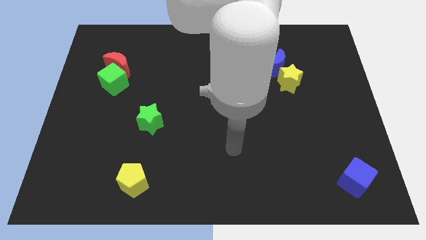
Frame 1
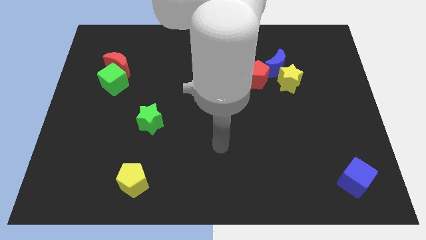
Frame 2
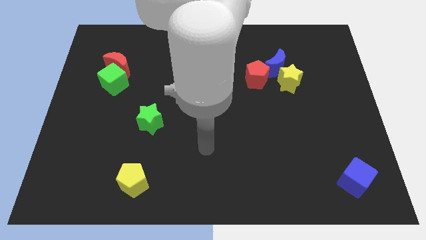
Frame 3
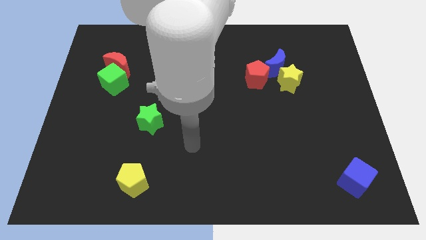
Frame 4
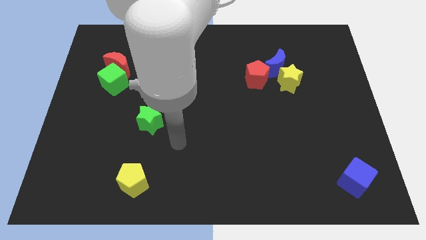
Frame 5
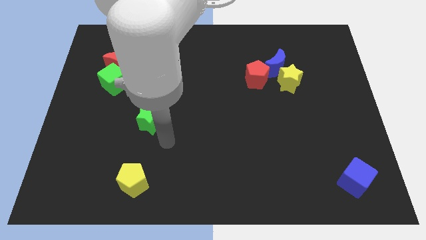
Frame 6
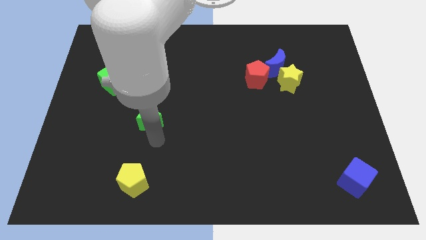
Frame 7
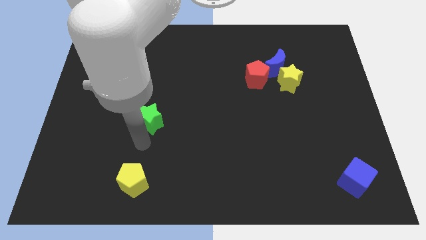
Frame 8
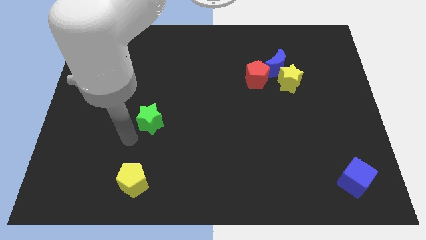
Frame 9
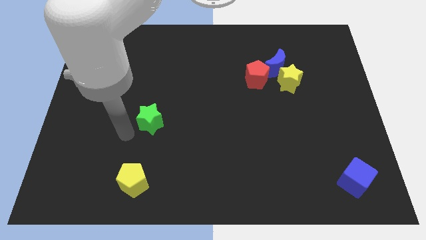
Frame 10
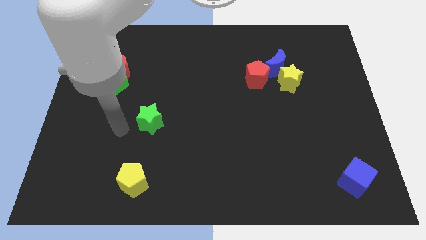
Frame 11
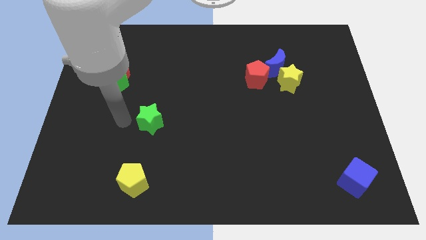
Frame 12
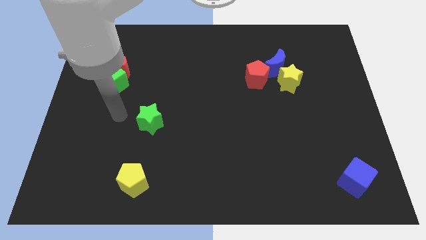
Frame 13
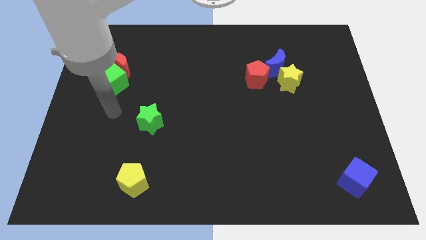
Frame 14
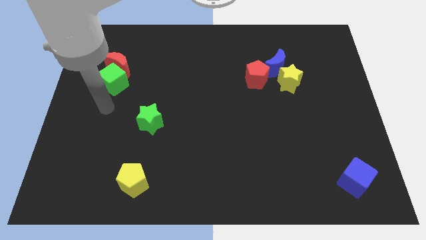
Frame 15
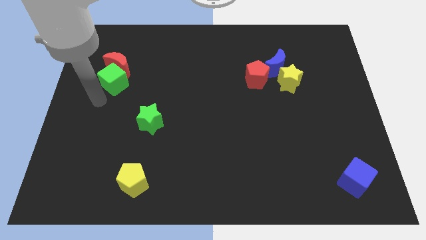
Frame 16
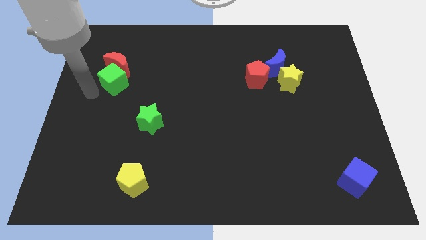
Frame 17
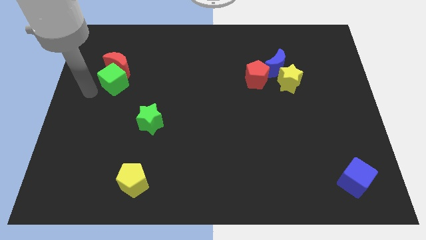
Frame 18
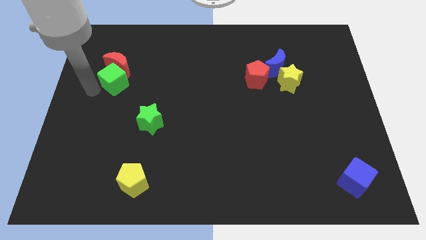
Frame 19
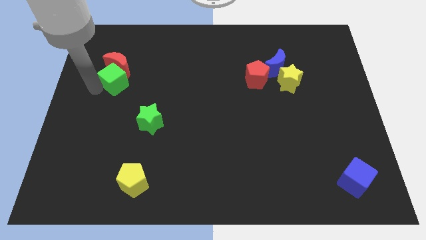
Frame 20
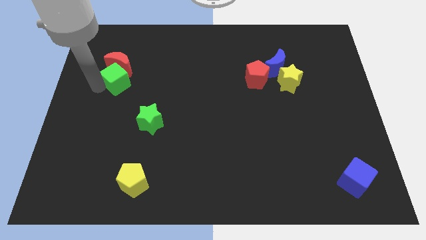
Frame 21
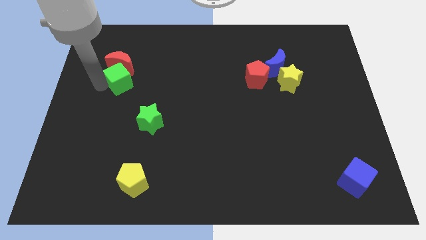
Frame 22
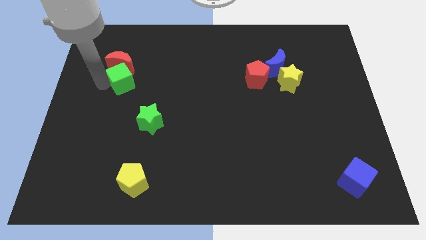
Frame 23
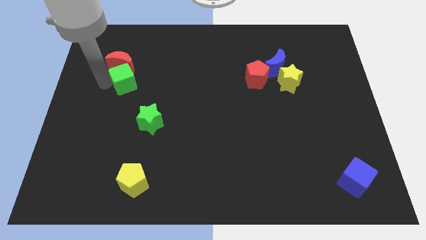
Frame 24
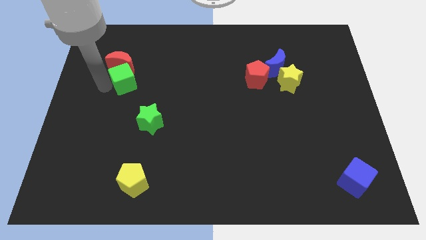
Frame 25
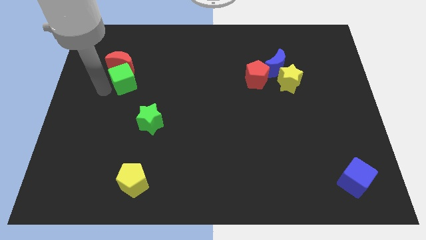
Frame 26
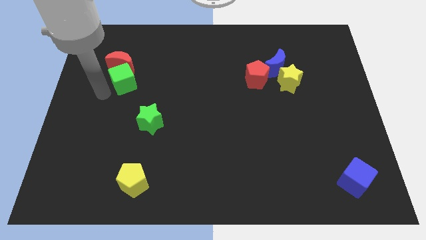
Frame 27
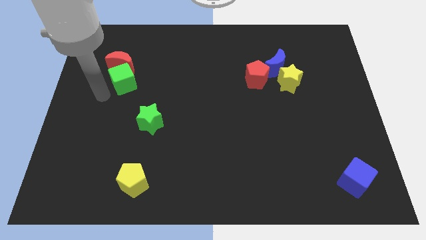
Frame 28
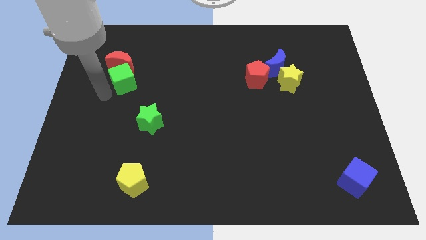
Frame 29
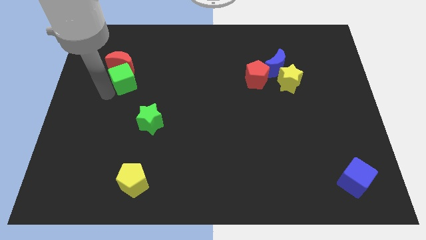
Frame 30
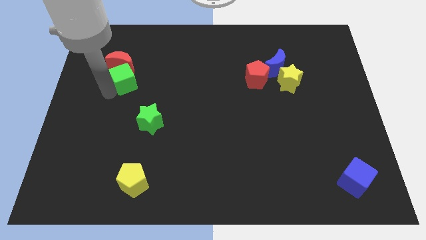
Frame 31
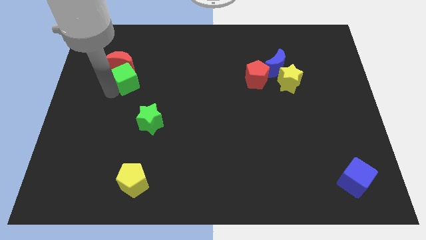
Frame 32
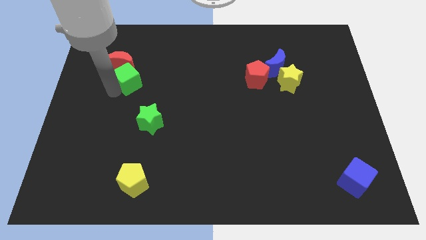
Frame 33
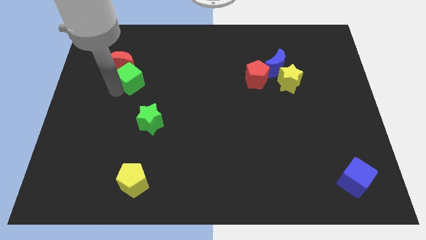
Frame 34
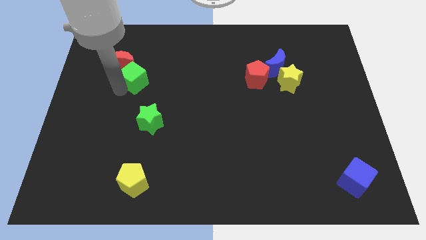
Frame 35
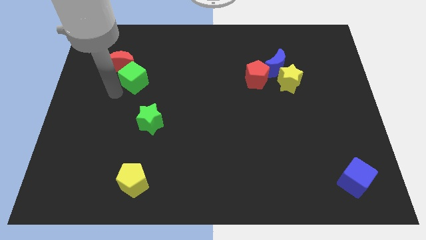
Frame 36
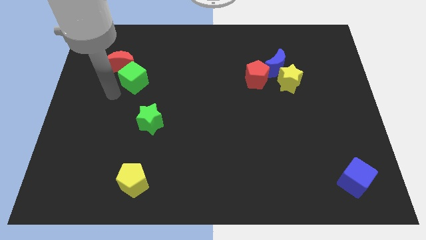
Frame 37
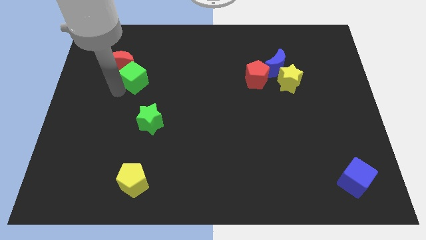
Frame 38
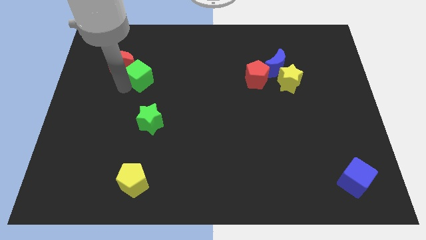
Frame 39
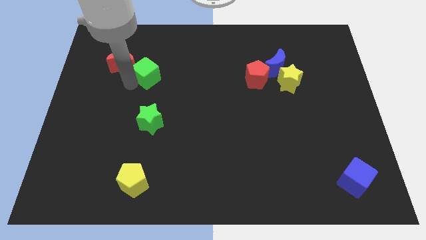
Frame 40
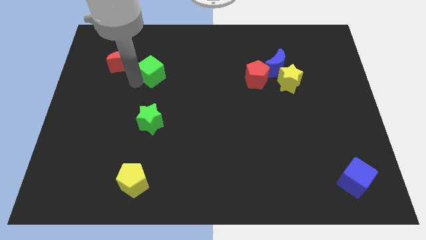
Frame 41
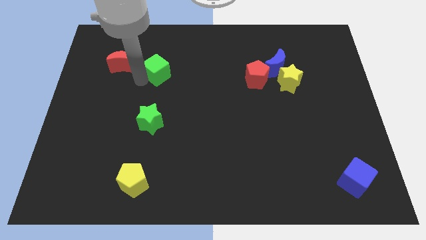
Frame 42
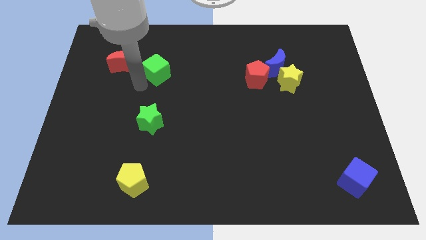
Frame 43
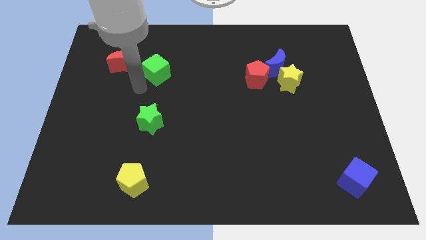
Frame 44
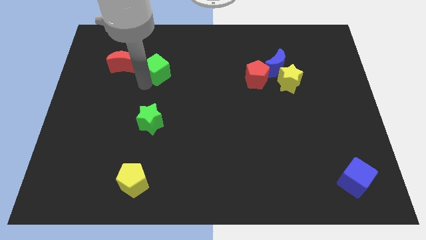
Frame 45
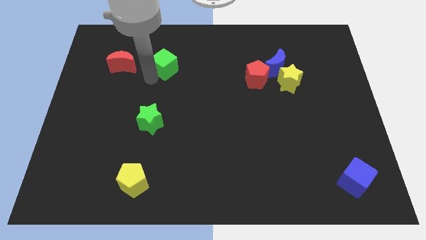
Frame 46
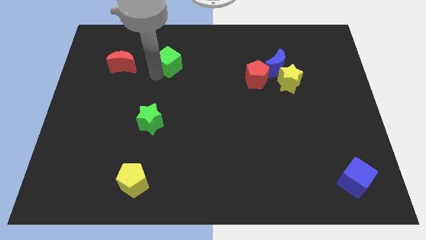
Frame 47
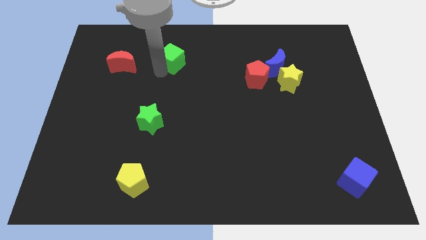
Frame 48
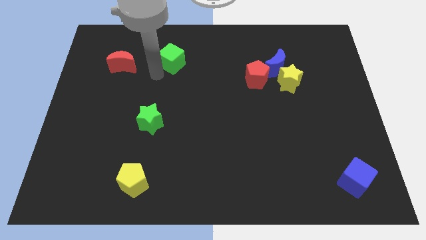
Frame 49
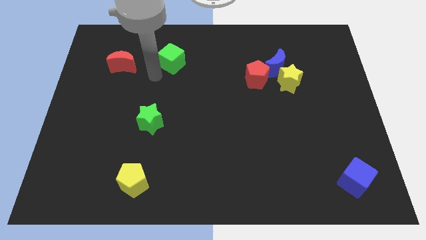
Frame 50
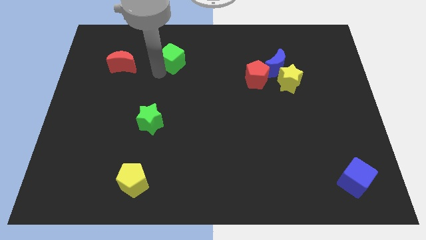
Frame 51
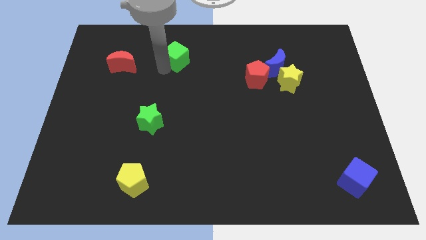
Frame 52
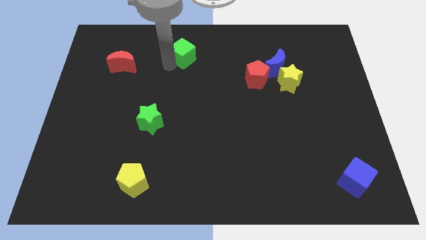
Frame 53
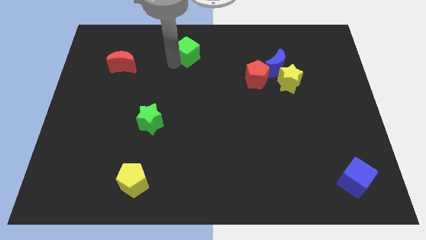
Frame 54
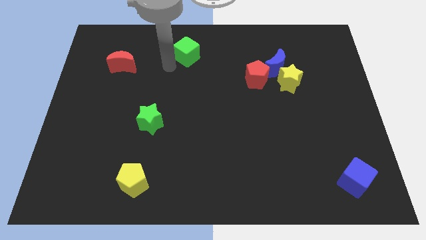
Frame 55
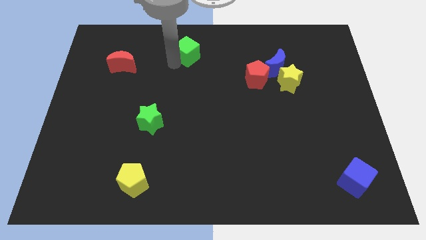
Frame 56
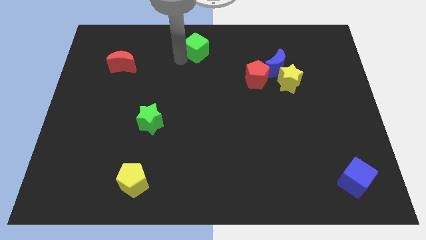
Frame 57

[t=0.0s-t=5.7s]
slide the green cube to the top
